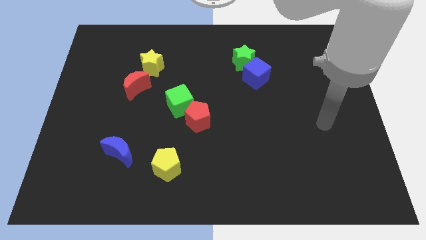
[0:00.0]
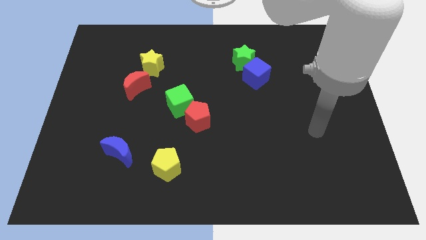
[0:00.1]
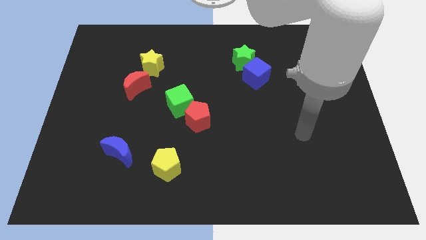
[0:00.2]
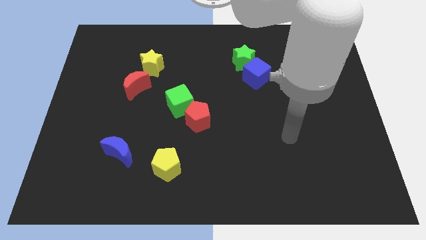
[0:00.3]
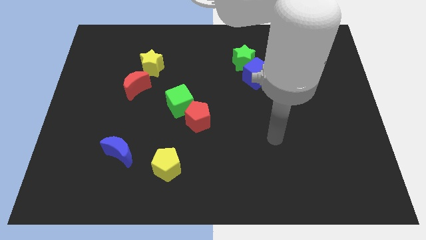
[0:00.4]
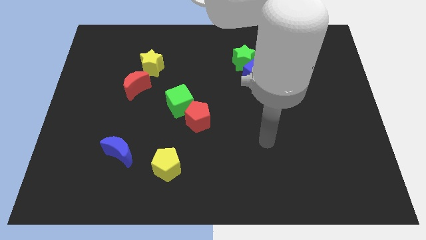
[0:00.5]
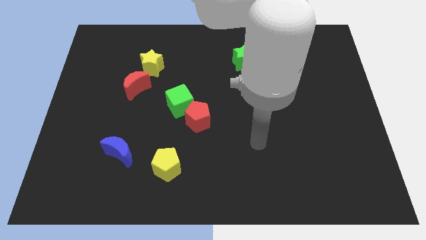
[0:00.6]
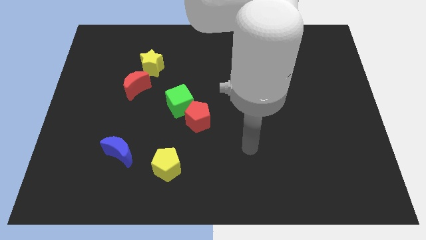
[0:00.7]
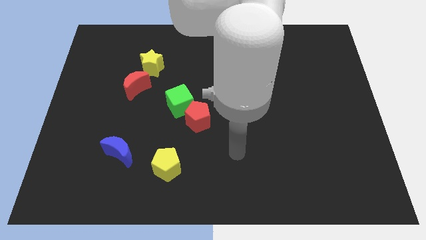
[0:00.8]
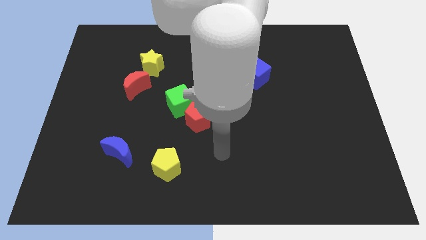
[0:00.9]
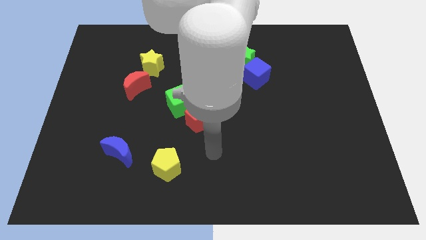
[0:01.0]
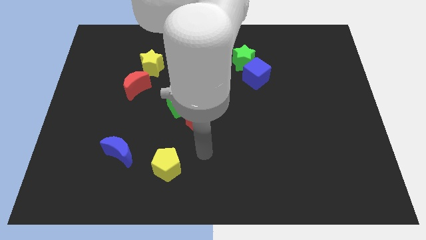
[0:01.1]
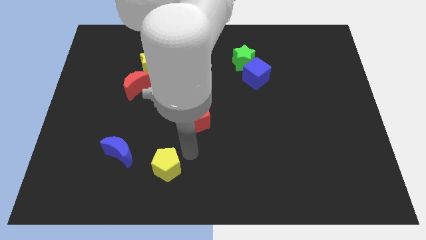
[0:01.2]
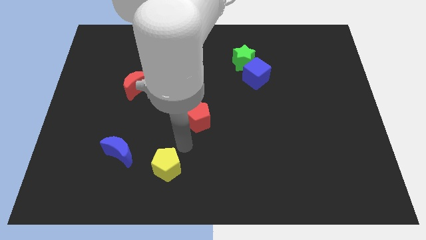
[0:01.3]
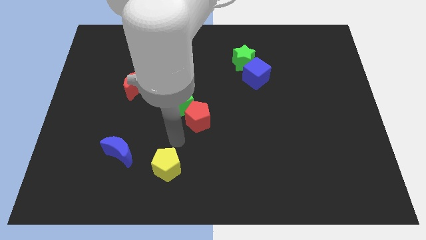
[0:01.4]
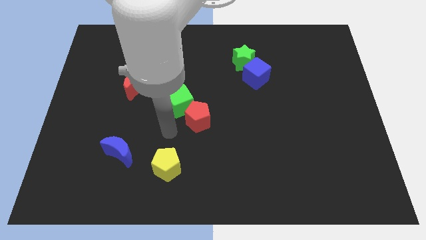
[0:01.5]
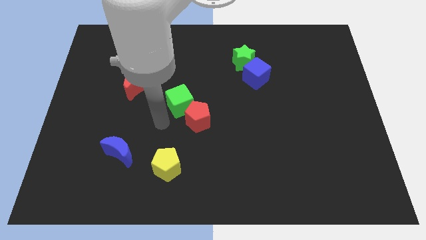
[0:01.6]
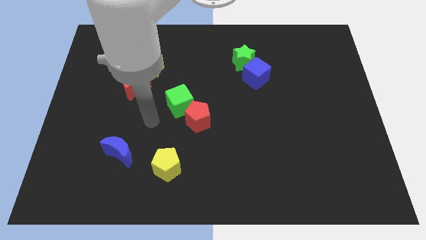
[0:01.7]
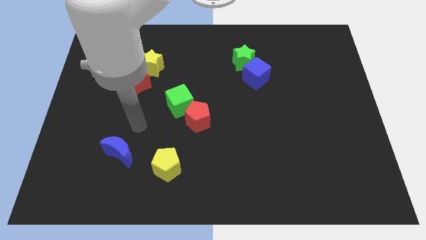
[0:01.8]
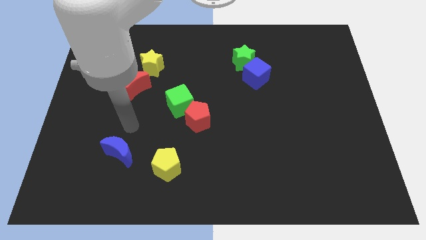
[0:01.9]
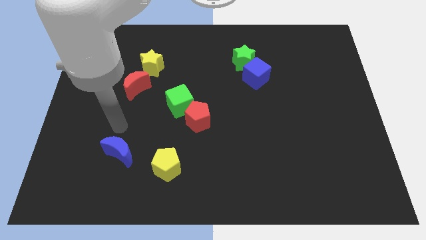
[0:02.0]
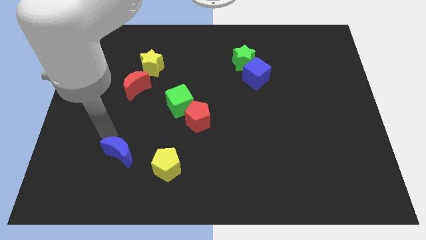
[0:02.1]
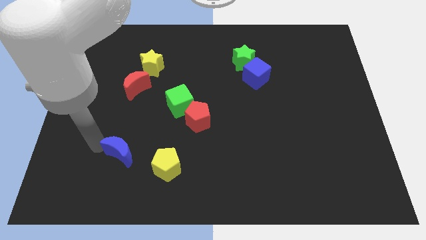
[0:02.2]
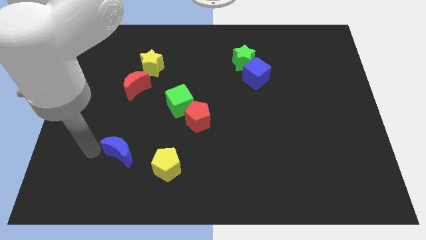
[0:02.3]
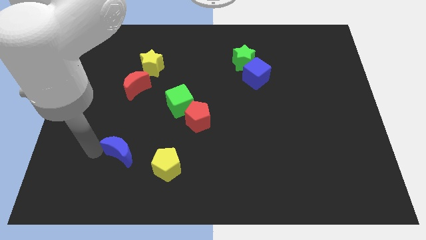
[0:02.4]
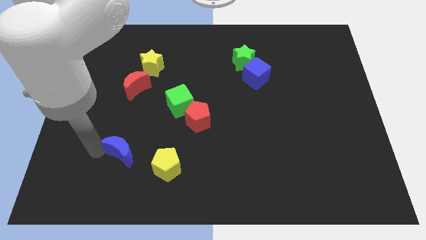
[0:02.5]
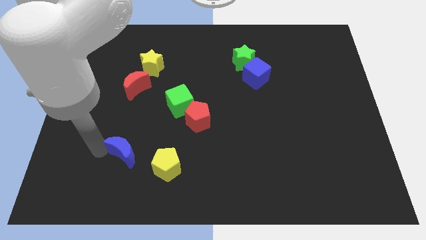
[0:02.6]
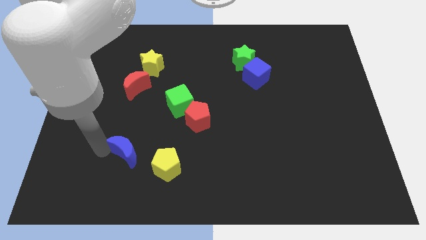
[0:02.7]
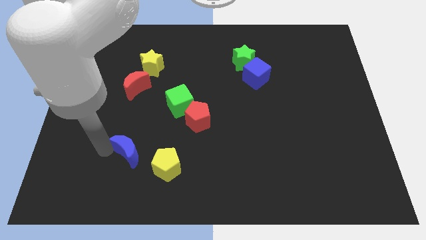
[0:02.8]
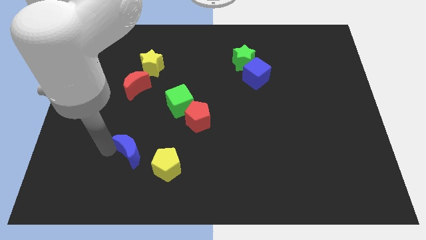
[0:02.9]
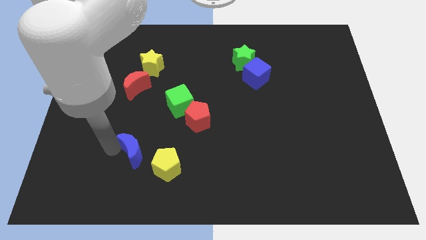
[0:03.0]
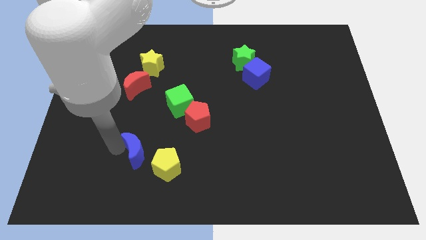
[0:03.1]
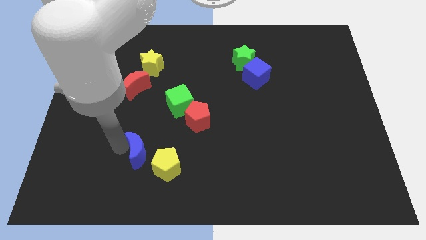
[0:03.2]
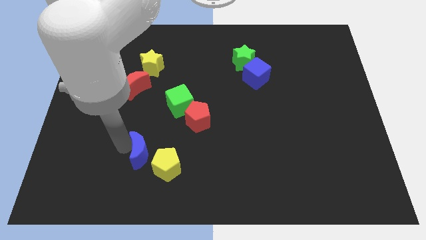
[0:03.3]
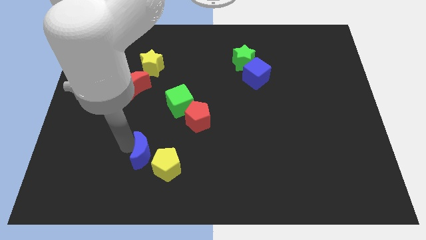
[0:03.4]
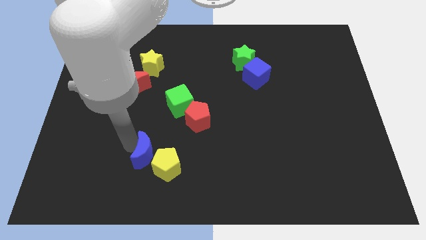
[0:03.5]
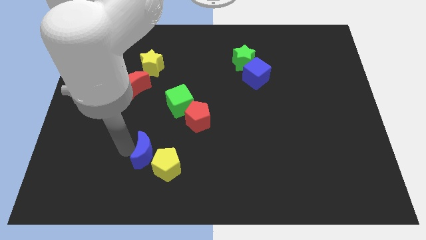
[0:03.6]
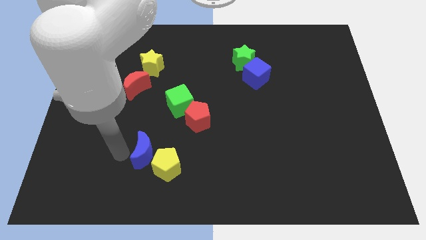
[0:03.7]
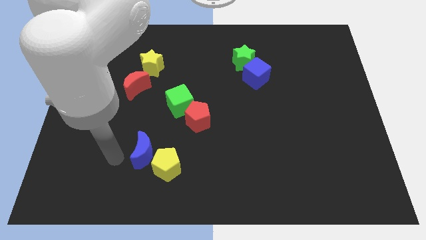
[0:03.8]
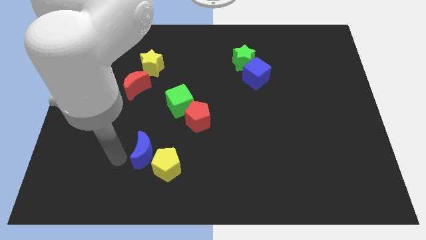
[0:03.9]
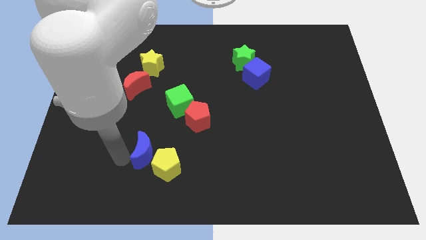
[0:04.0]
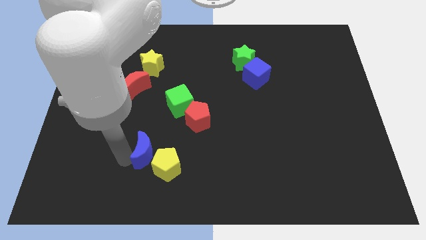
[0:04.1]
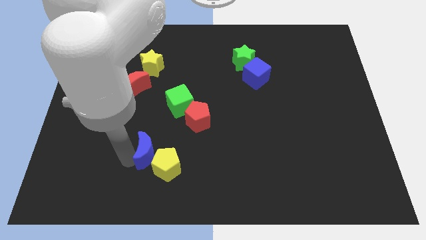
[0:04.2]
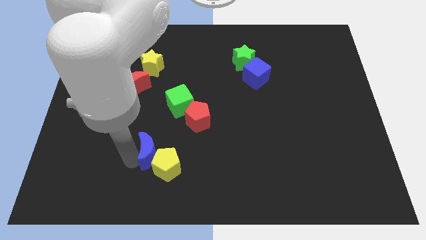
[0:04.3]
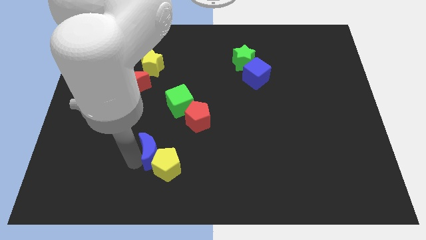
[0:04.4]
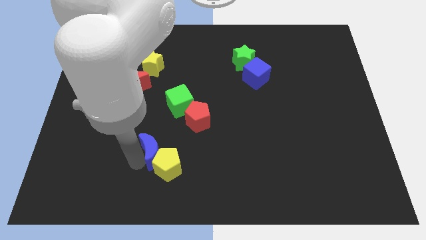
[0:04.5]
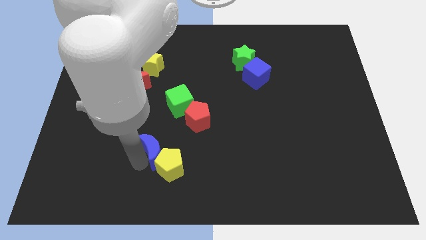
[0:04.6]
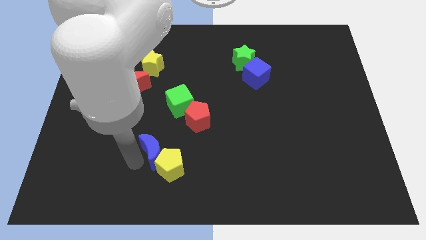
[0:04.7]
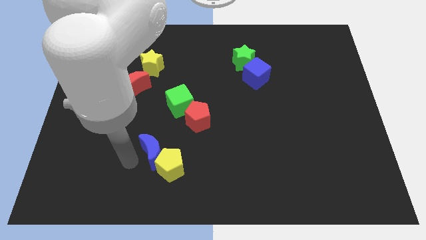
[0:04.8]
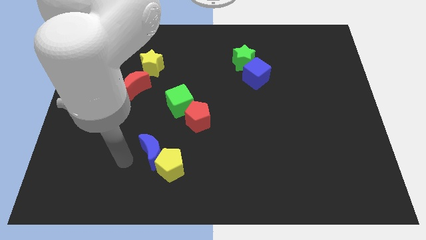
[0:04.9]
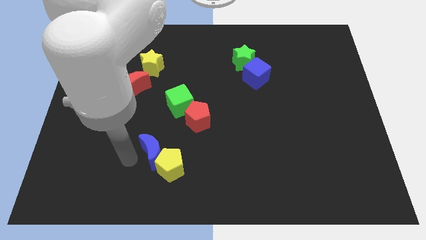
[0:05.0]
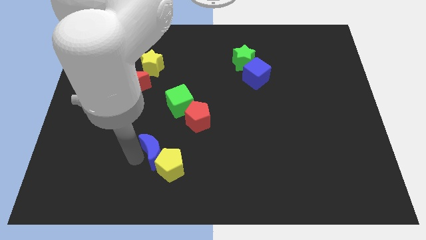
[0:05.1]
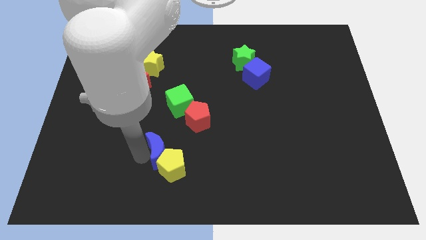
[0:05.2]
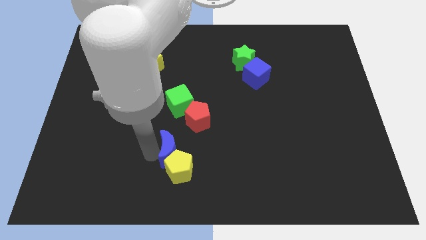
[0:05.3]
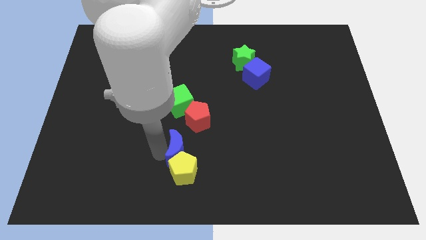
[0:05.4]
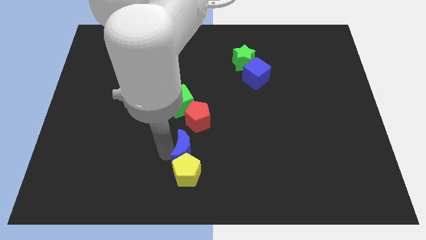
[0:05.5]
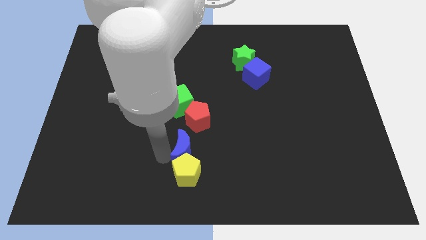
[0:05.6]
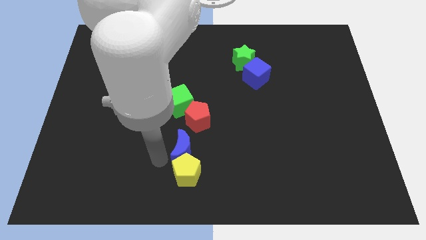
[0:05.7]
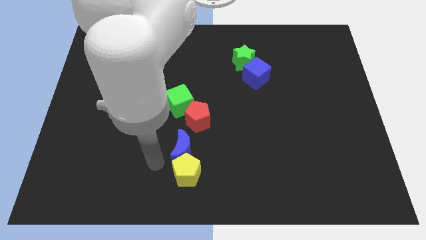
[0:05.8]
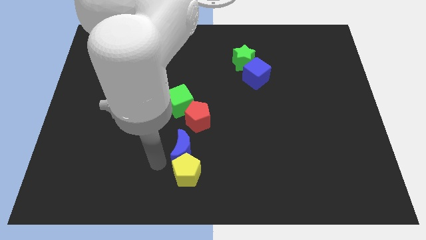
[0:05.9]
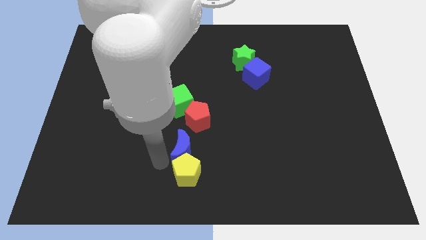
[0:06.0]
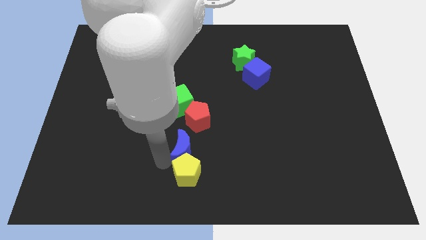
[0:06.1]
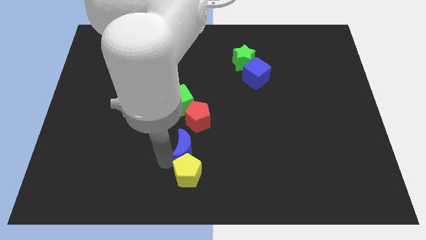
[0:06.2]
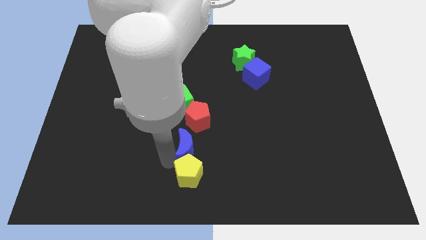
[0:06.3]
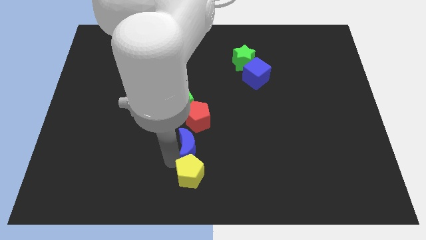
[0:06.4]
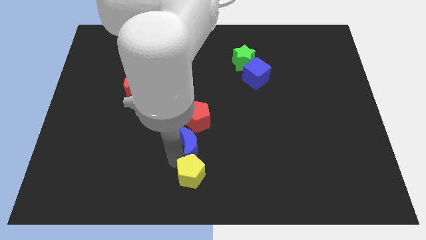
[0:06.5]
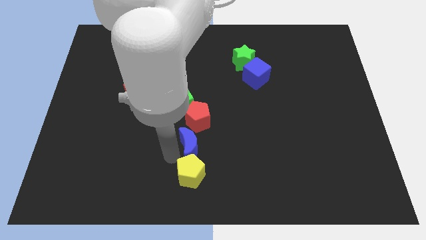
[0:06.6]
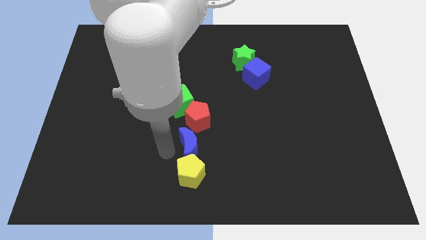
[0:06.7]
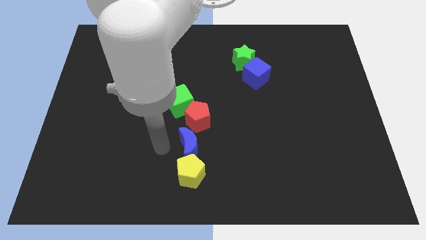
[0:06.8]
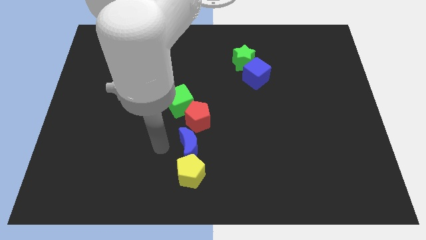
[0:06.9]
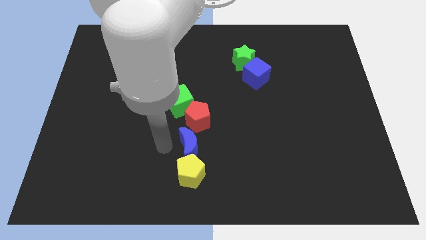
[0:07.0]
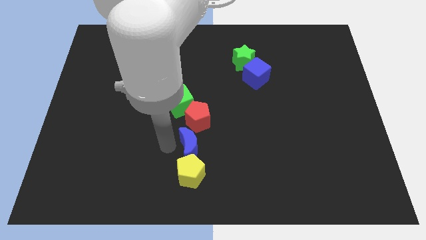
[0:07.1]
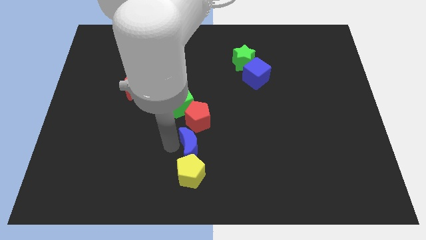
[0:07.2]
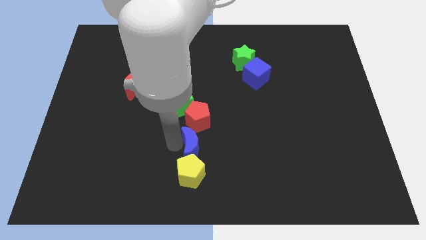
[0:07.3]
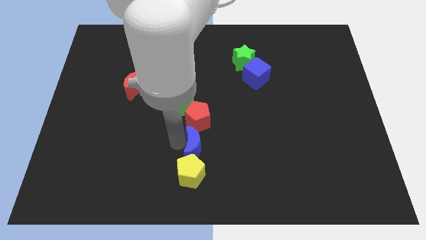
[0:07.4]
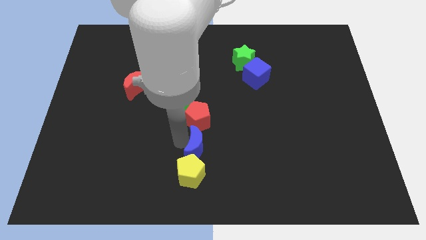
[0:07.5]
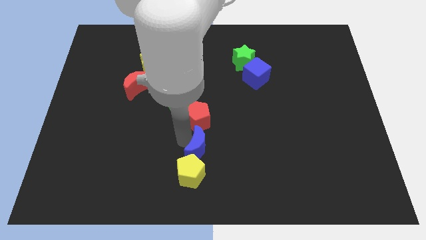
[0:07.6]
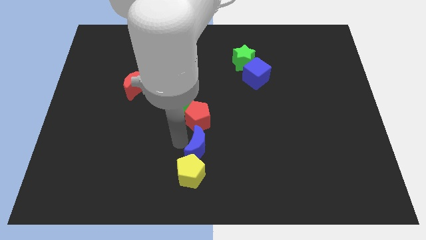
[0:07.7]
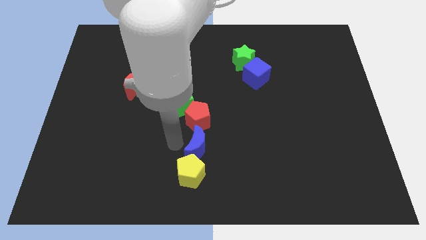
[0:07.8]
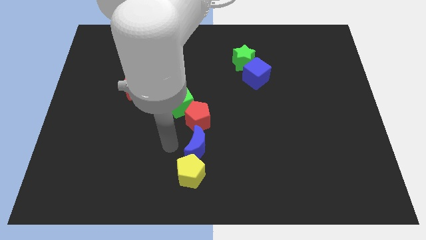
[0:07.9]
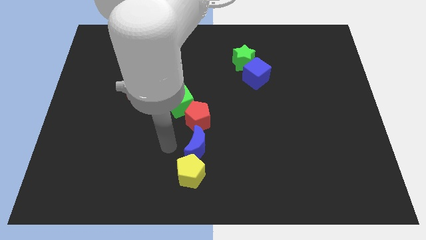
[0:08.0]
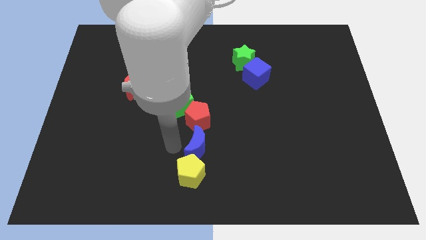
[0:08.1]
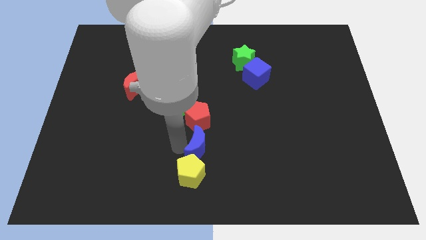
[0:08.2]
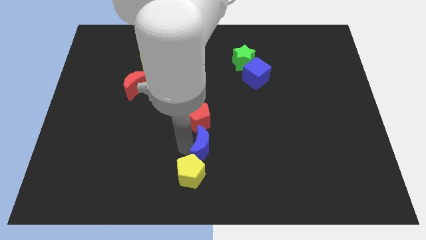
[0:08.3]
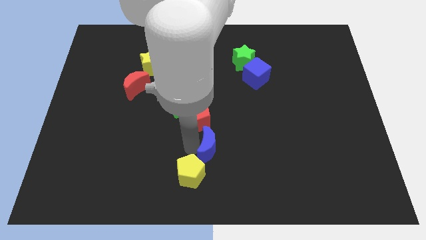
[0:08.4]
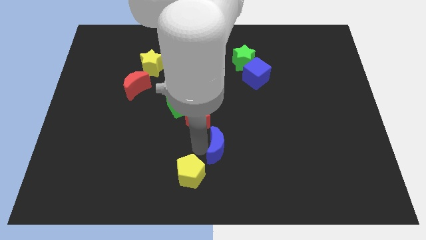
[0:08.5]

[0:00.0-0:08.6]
move the blue moon right
